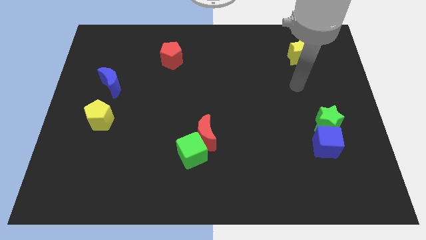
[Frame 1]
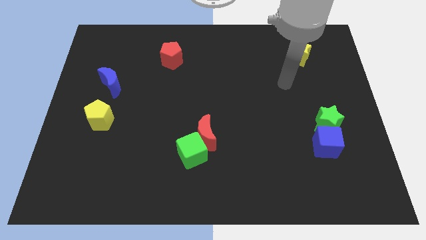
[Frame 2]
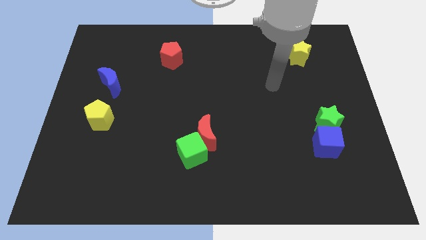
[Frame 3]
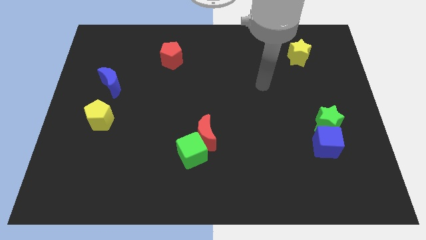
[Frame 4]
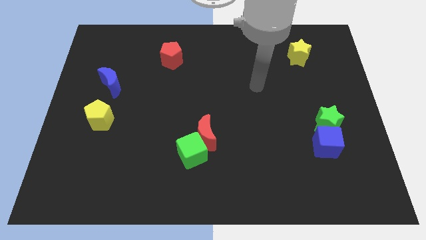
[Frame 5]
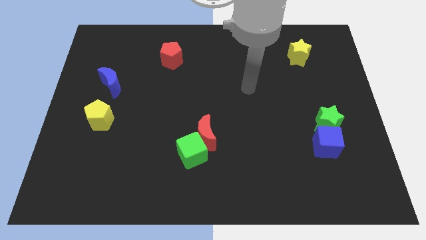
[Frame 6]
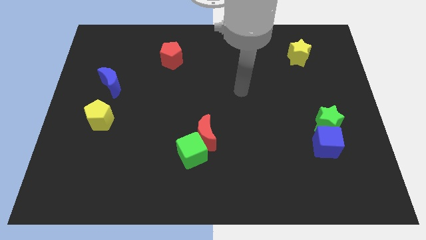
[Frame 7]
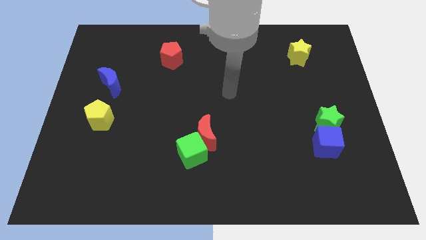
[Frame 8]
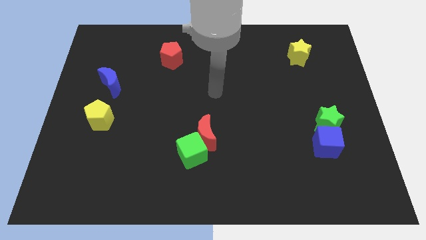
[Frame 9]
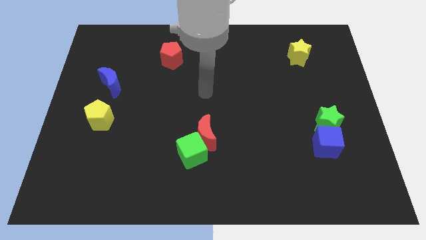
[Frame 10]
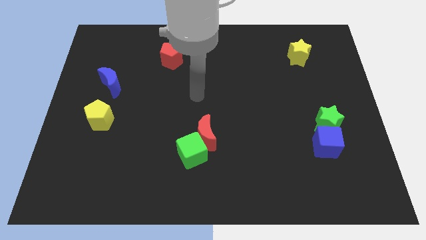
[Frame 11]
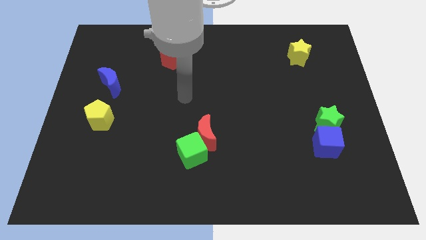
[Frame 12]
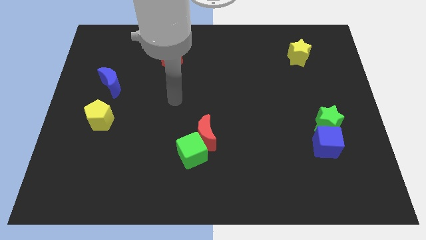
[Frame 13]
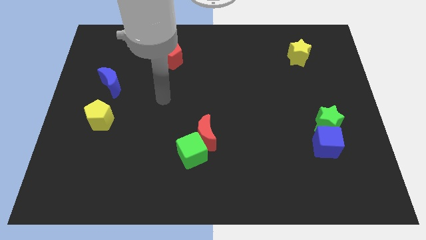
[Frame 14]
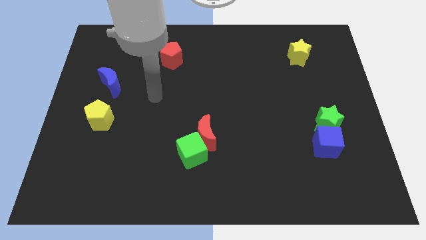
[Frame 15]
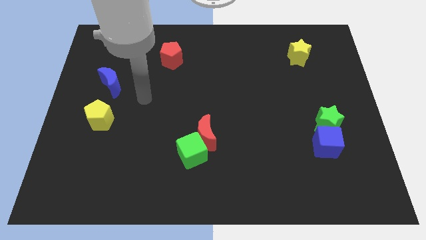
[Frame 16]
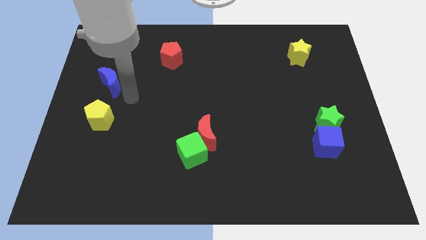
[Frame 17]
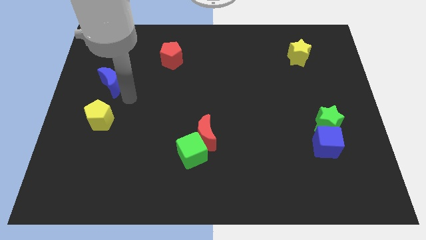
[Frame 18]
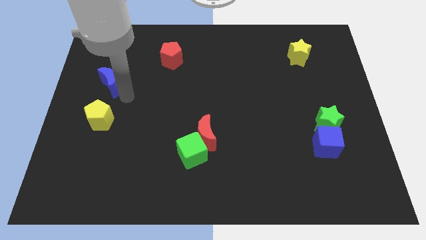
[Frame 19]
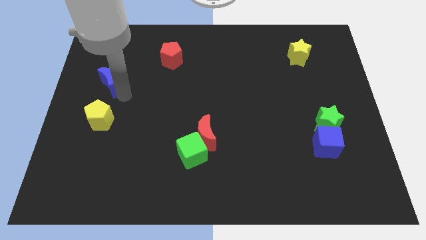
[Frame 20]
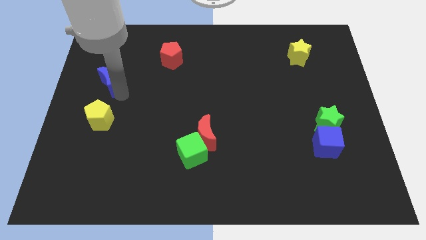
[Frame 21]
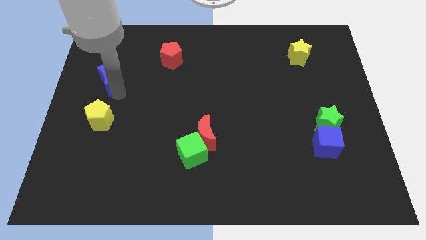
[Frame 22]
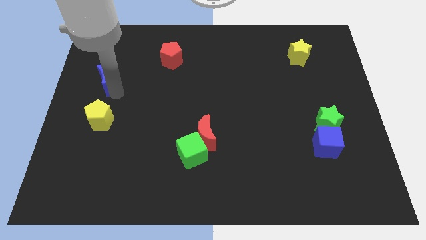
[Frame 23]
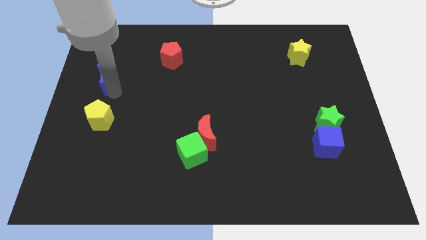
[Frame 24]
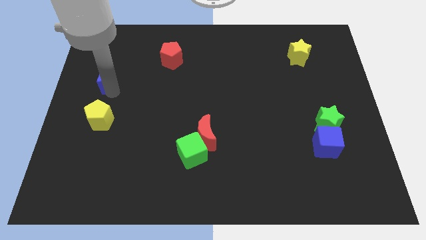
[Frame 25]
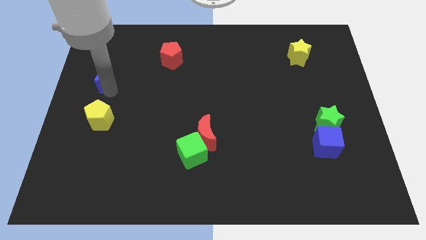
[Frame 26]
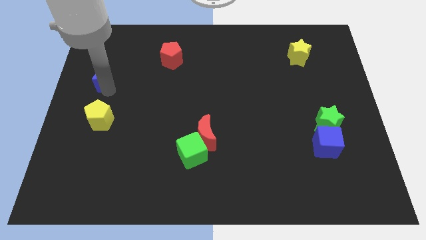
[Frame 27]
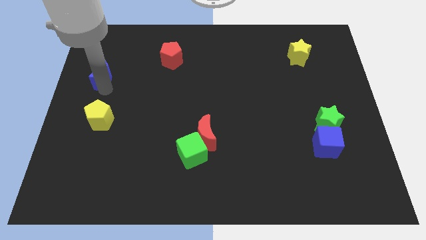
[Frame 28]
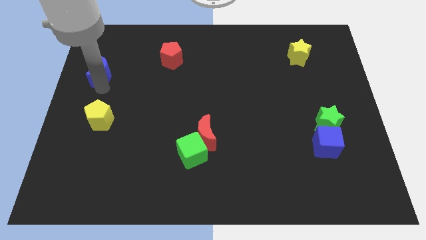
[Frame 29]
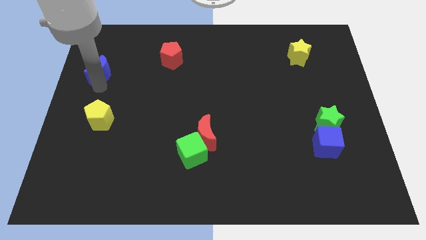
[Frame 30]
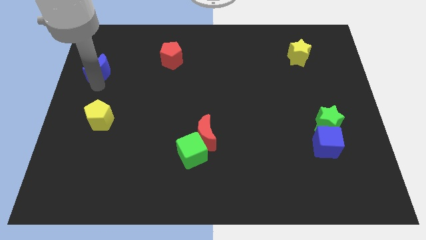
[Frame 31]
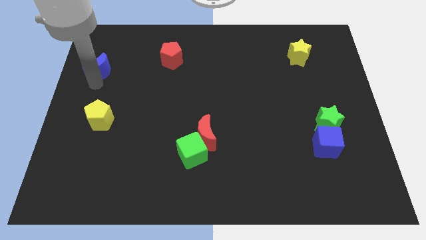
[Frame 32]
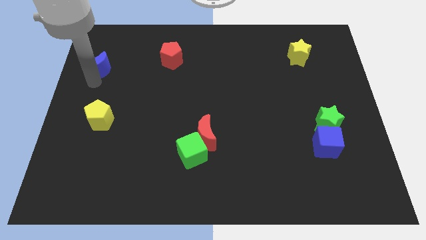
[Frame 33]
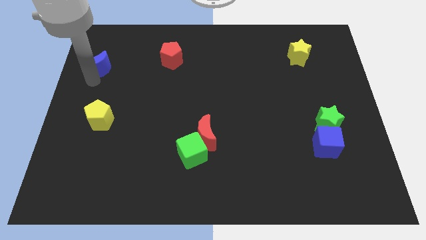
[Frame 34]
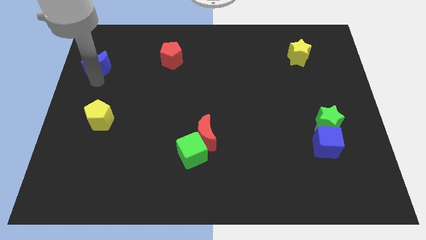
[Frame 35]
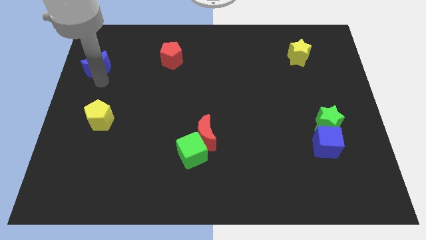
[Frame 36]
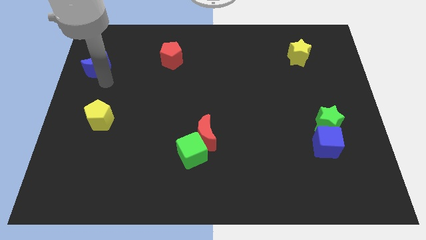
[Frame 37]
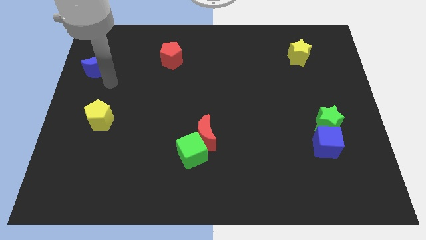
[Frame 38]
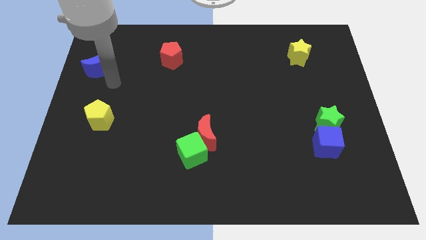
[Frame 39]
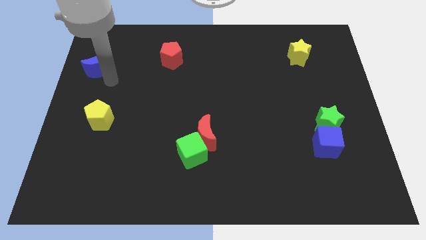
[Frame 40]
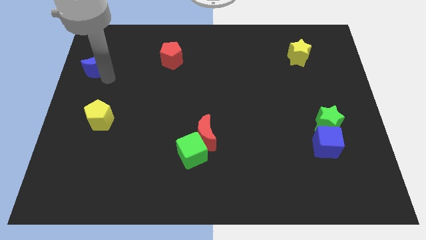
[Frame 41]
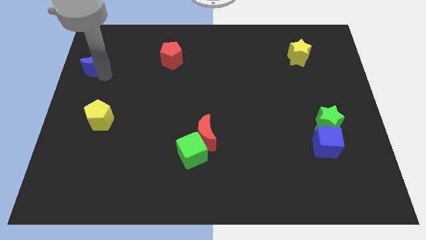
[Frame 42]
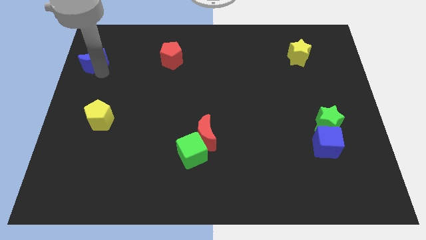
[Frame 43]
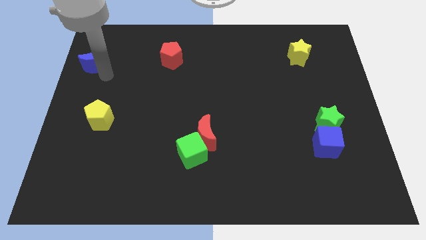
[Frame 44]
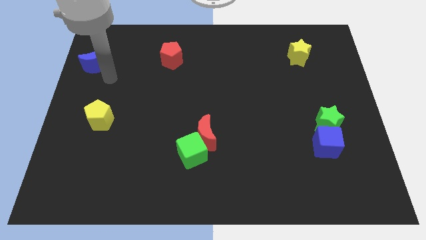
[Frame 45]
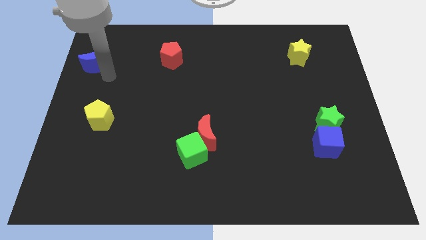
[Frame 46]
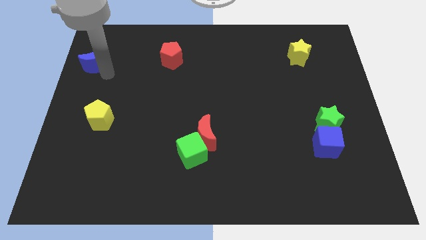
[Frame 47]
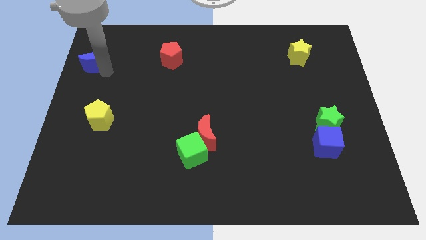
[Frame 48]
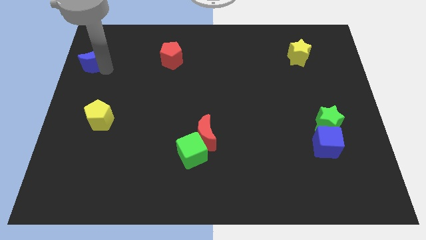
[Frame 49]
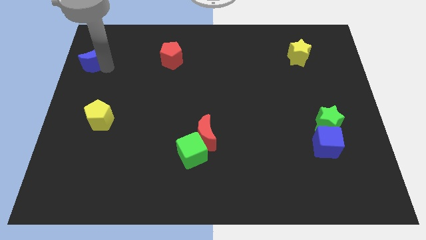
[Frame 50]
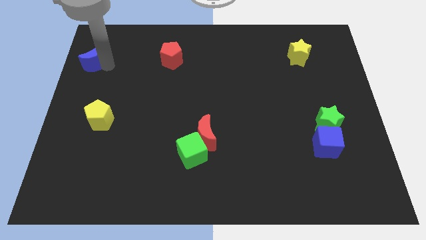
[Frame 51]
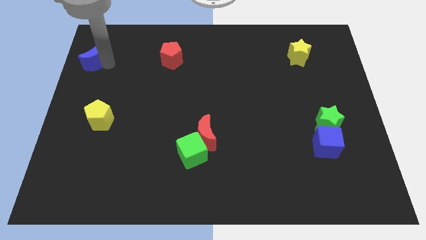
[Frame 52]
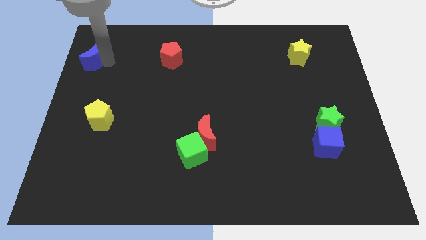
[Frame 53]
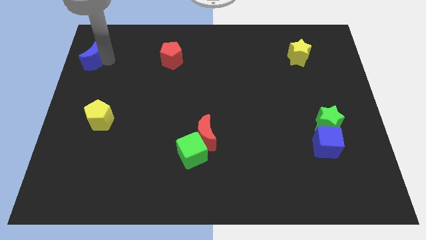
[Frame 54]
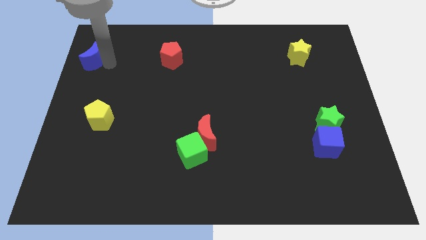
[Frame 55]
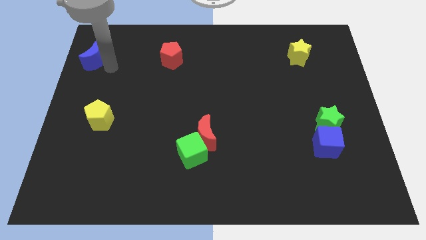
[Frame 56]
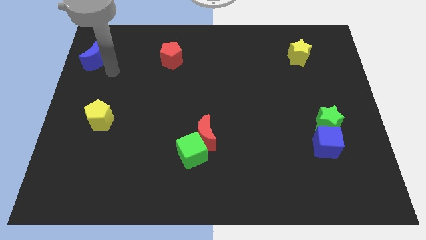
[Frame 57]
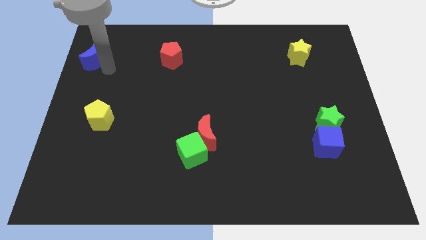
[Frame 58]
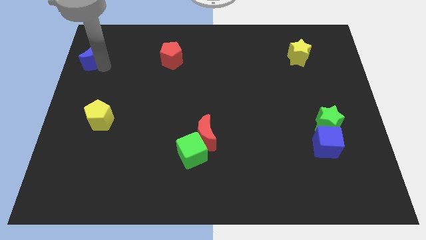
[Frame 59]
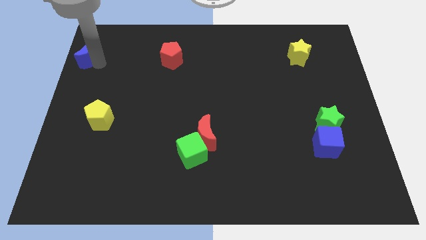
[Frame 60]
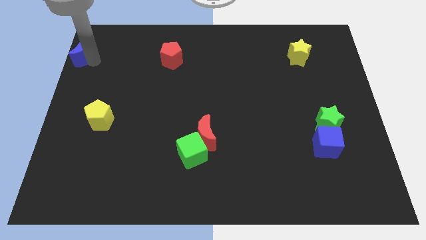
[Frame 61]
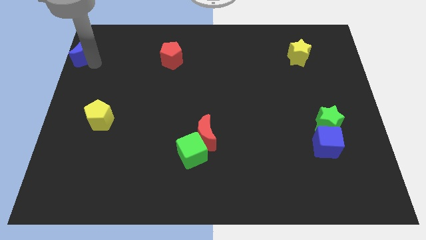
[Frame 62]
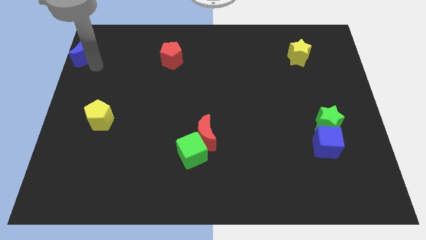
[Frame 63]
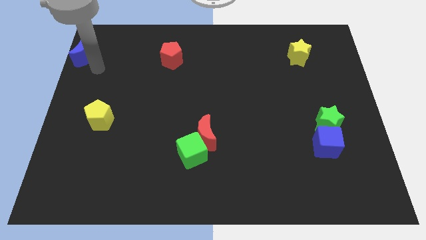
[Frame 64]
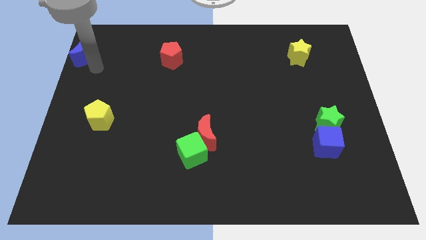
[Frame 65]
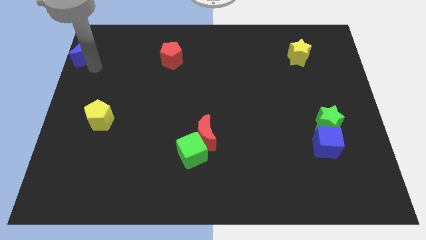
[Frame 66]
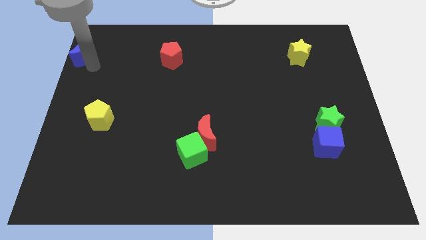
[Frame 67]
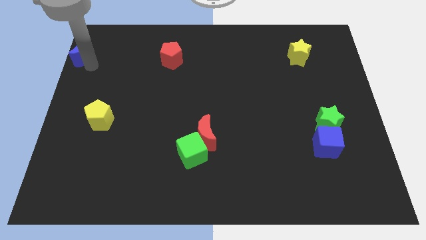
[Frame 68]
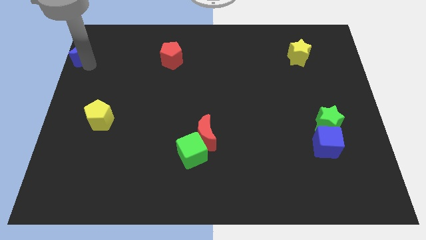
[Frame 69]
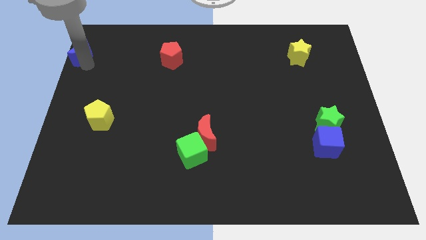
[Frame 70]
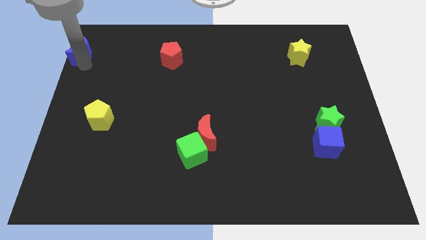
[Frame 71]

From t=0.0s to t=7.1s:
put the blue moon to the top left of the board
